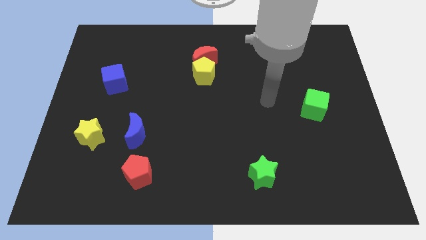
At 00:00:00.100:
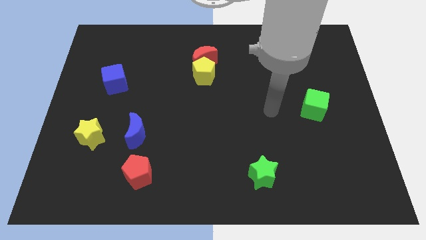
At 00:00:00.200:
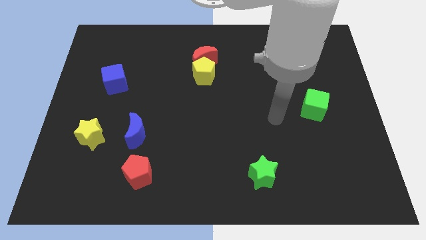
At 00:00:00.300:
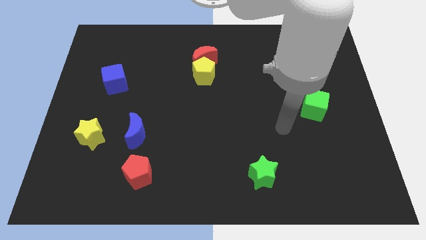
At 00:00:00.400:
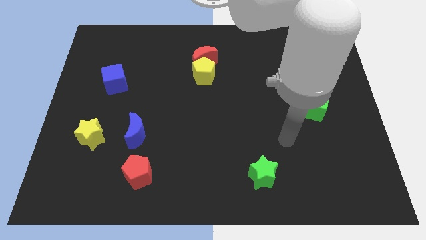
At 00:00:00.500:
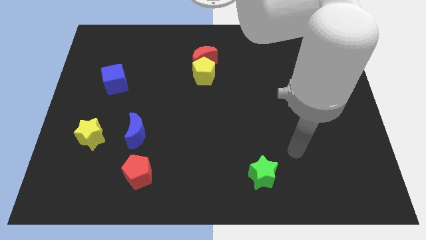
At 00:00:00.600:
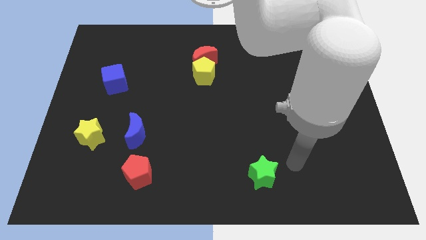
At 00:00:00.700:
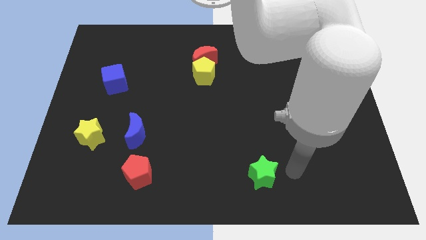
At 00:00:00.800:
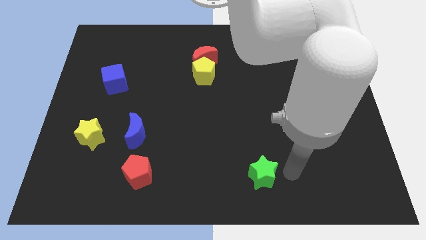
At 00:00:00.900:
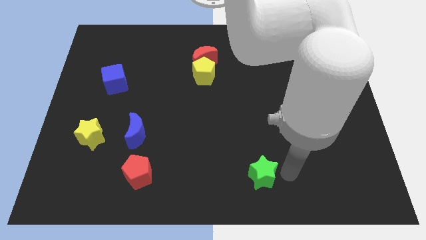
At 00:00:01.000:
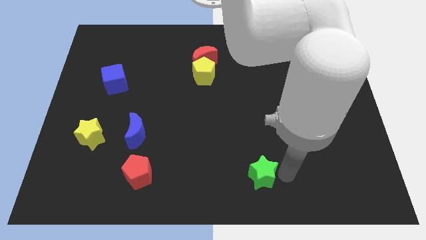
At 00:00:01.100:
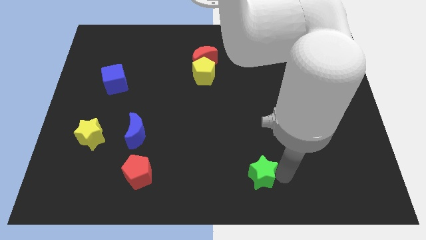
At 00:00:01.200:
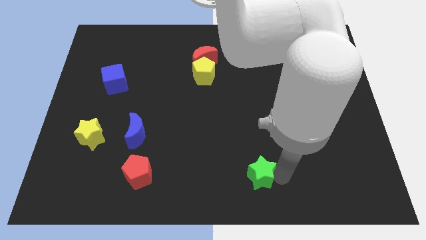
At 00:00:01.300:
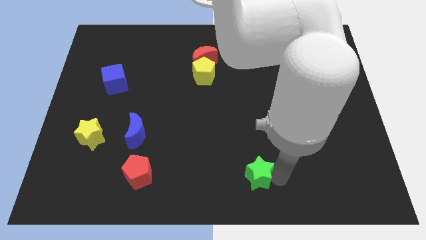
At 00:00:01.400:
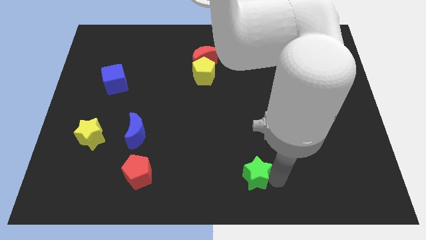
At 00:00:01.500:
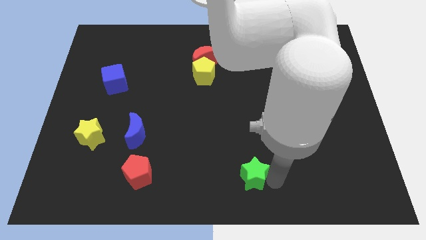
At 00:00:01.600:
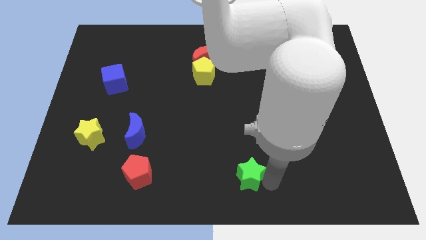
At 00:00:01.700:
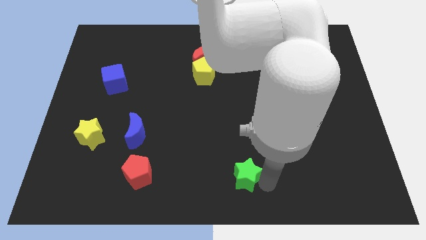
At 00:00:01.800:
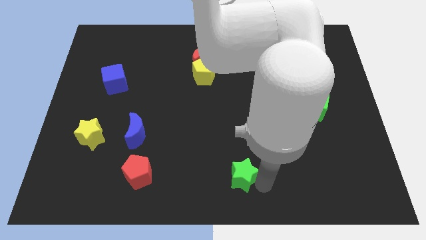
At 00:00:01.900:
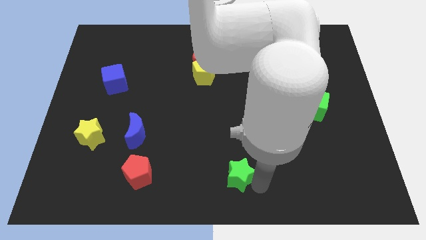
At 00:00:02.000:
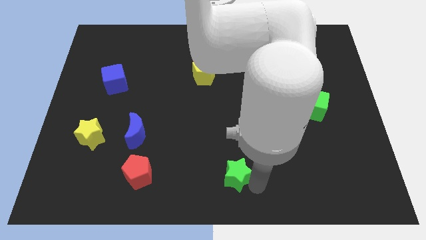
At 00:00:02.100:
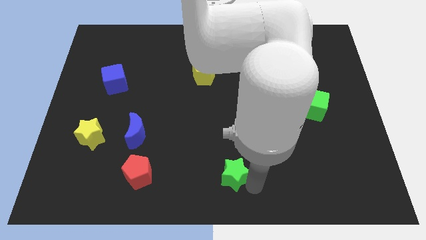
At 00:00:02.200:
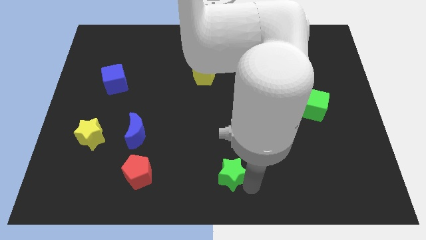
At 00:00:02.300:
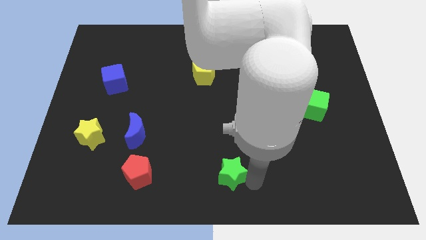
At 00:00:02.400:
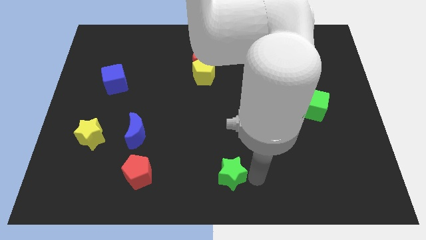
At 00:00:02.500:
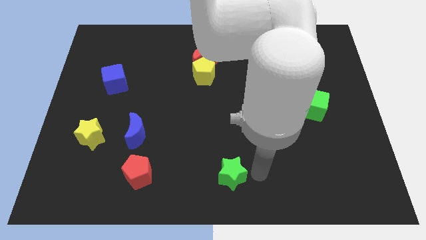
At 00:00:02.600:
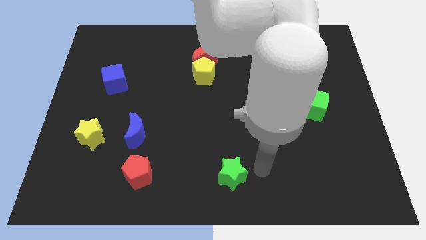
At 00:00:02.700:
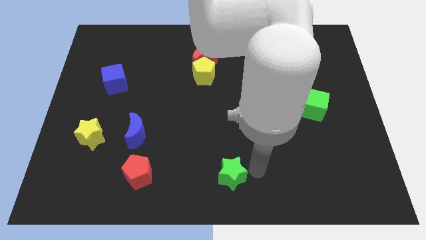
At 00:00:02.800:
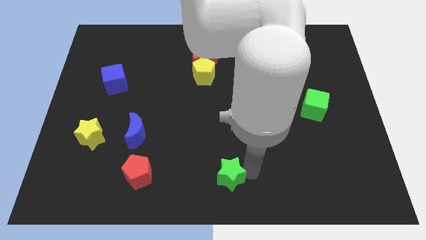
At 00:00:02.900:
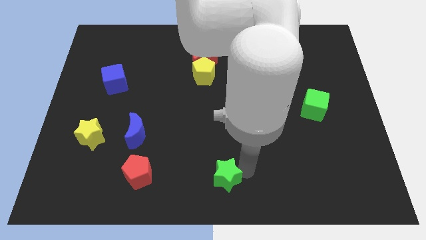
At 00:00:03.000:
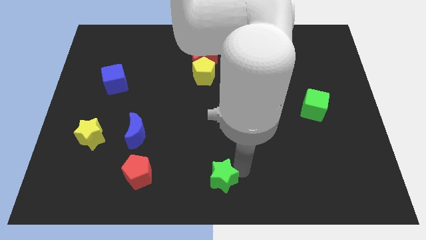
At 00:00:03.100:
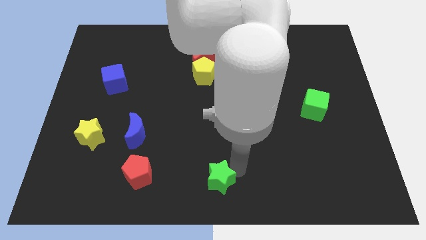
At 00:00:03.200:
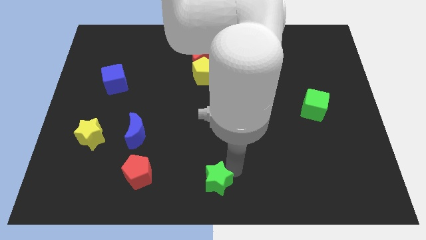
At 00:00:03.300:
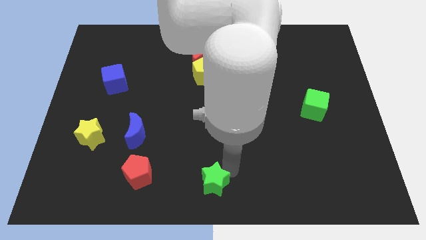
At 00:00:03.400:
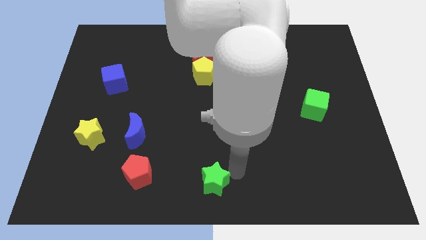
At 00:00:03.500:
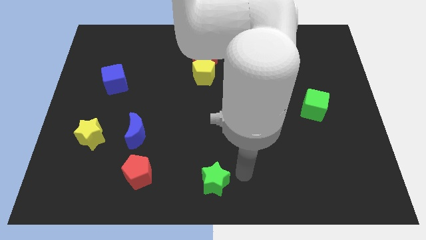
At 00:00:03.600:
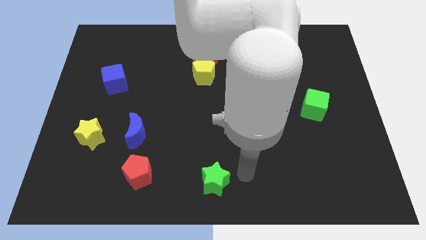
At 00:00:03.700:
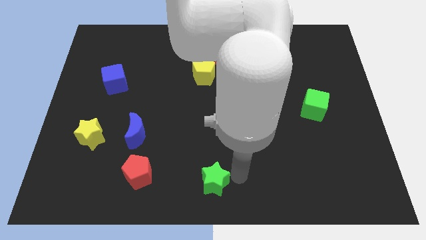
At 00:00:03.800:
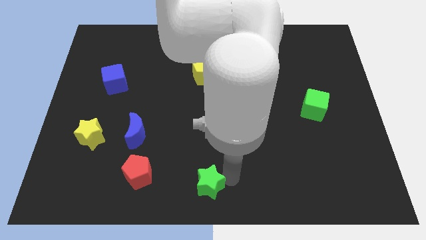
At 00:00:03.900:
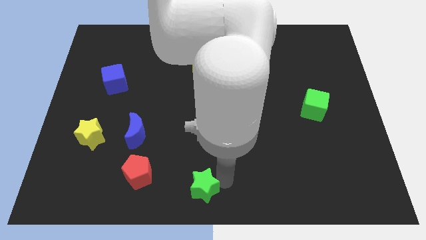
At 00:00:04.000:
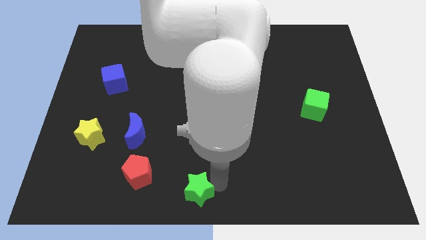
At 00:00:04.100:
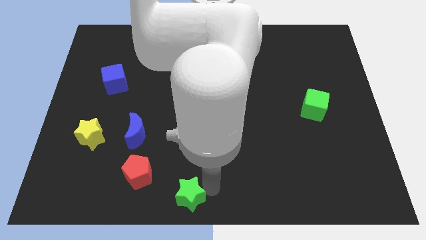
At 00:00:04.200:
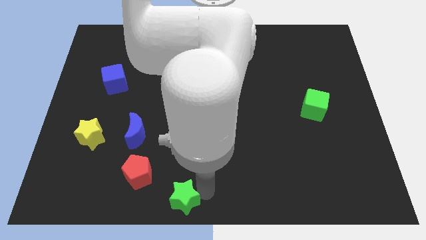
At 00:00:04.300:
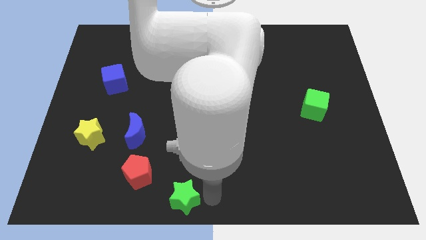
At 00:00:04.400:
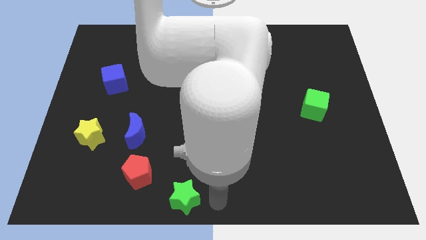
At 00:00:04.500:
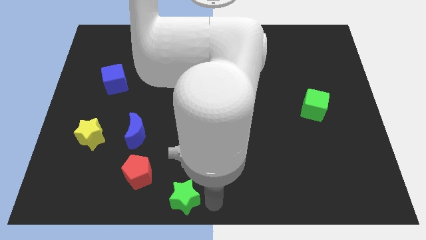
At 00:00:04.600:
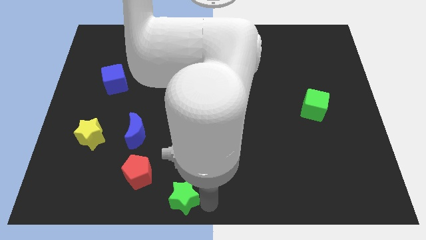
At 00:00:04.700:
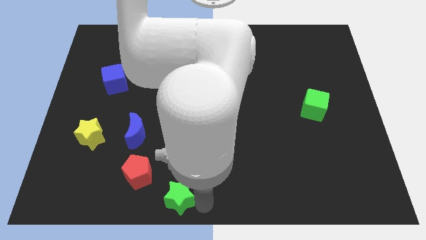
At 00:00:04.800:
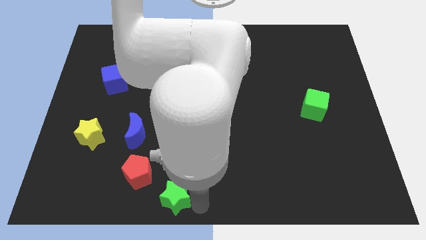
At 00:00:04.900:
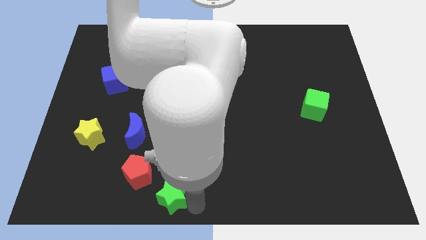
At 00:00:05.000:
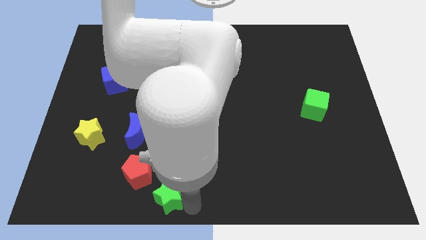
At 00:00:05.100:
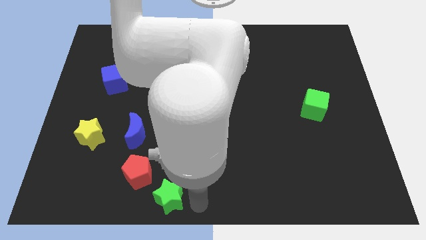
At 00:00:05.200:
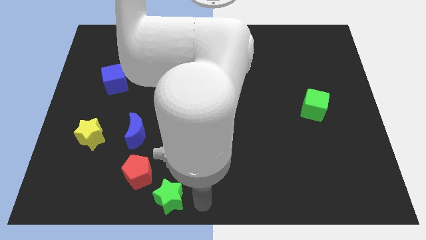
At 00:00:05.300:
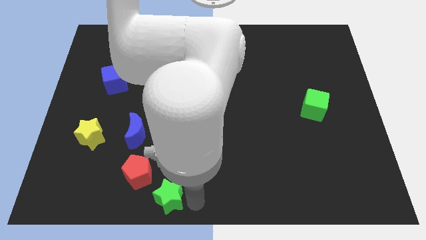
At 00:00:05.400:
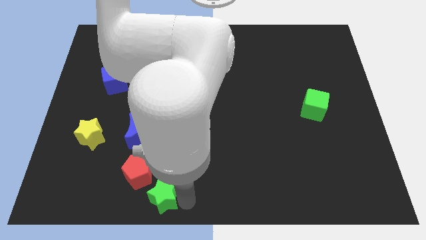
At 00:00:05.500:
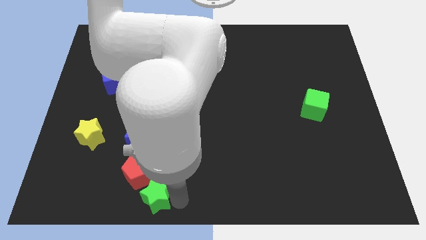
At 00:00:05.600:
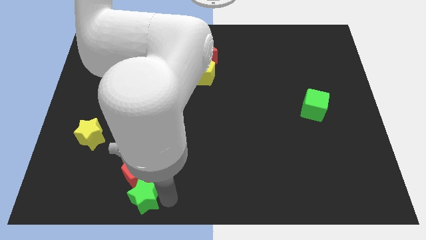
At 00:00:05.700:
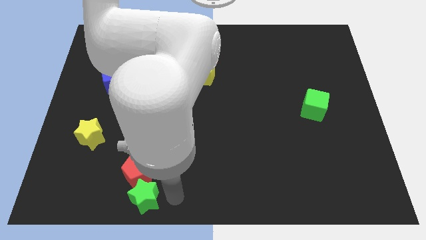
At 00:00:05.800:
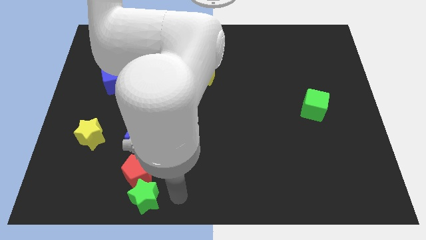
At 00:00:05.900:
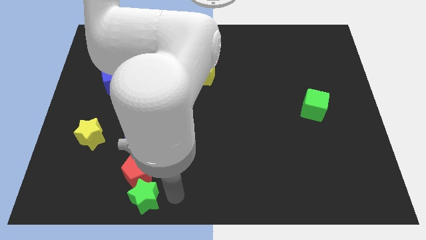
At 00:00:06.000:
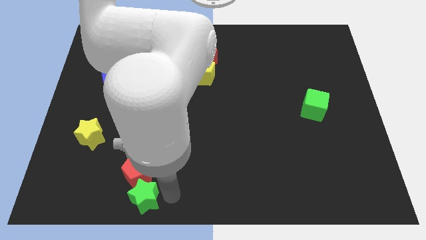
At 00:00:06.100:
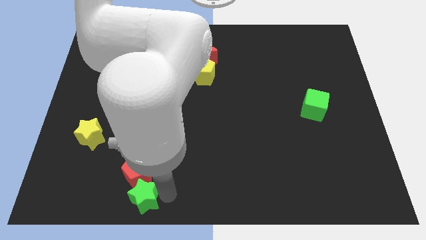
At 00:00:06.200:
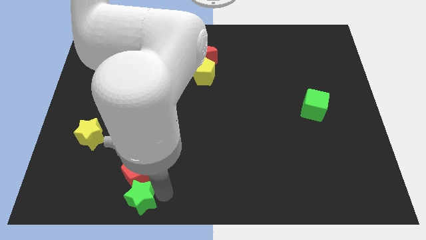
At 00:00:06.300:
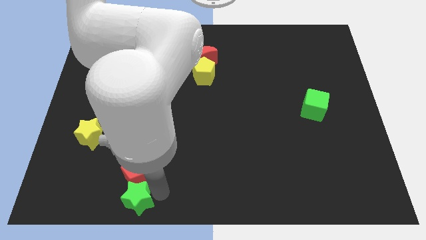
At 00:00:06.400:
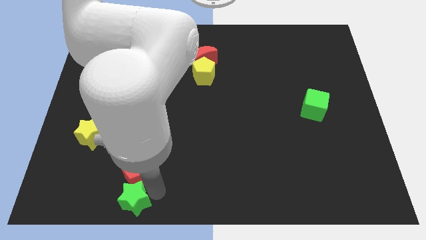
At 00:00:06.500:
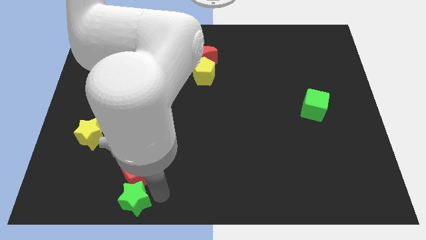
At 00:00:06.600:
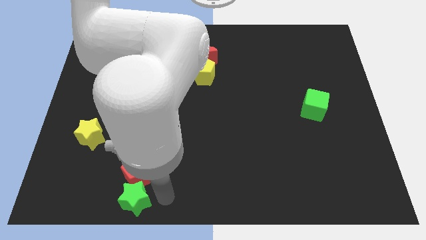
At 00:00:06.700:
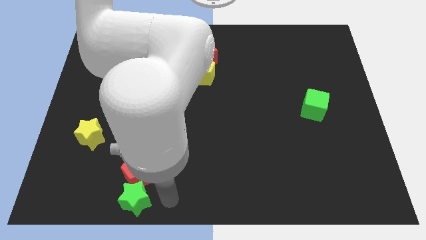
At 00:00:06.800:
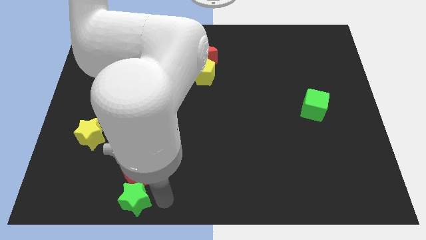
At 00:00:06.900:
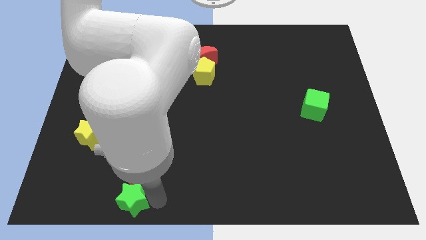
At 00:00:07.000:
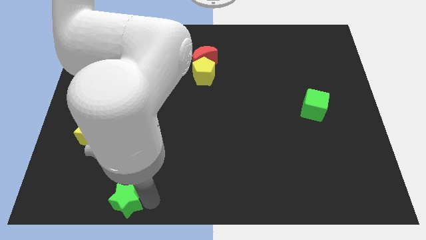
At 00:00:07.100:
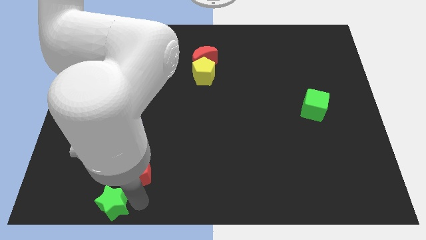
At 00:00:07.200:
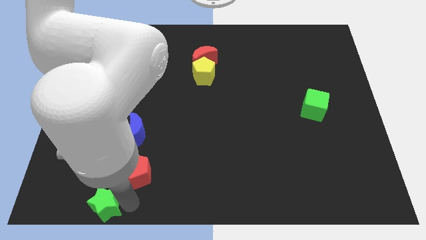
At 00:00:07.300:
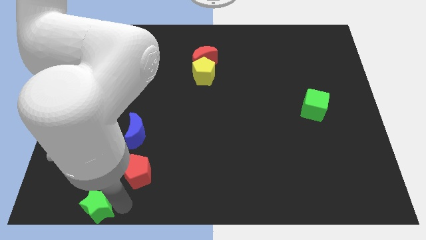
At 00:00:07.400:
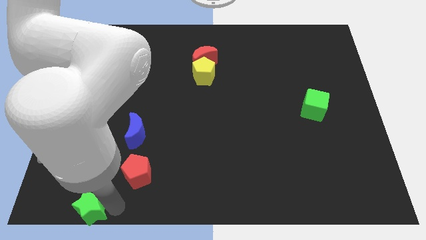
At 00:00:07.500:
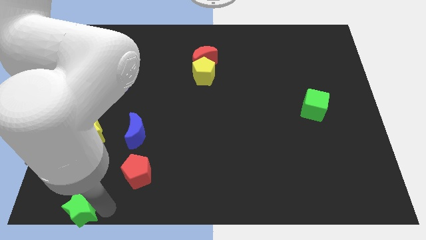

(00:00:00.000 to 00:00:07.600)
move the green star to the lower left corner
